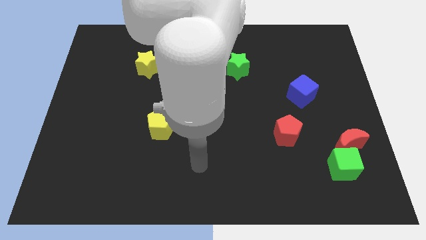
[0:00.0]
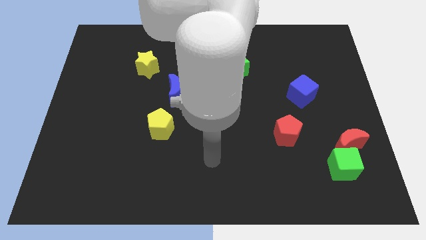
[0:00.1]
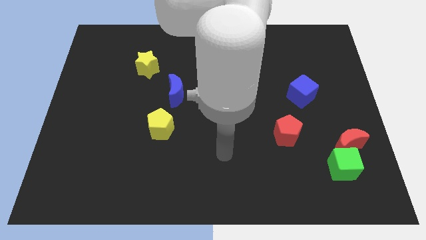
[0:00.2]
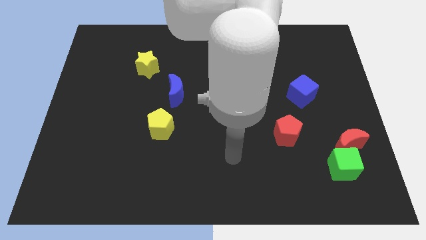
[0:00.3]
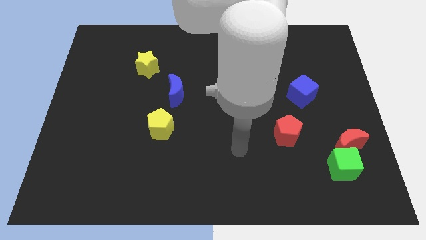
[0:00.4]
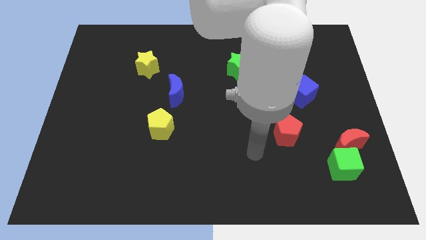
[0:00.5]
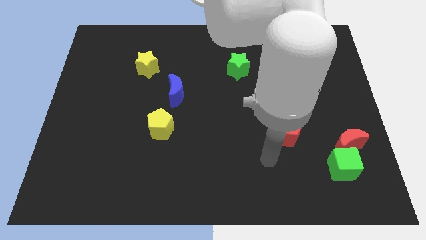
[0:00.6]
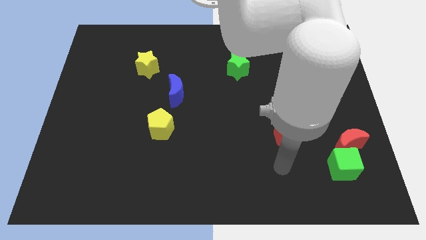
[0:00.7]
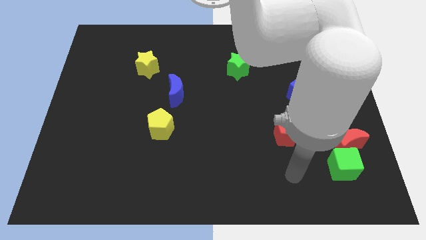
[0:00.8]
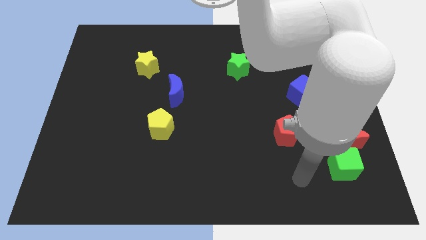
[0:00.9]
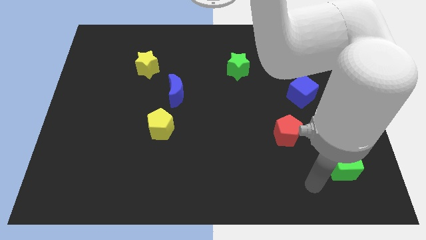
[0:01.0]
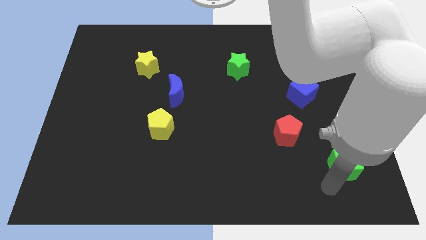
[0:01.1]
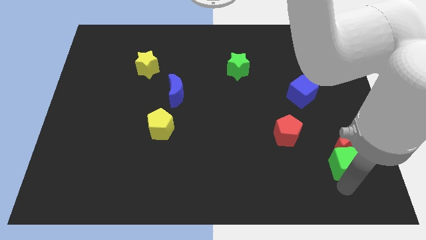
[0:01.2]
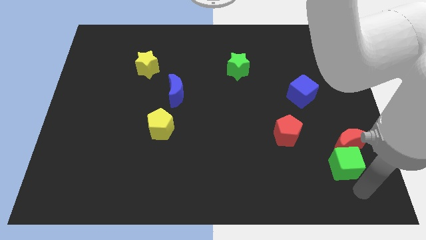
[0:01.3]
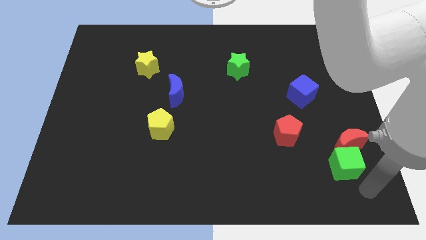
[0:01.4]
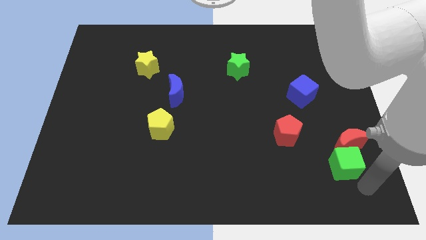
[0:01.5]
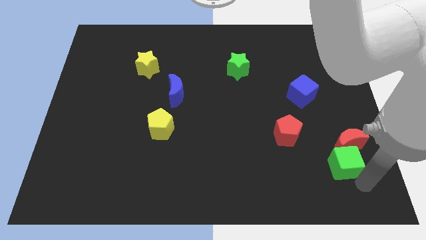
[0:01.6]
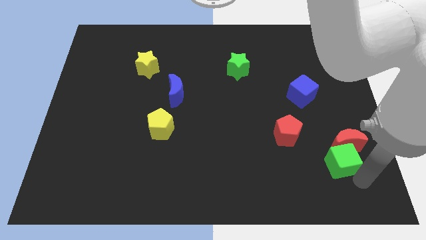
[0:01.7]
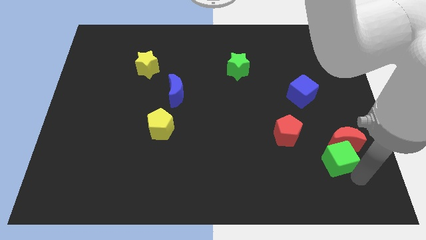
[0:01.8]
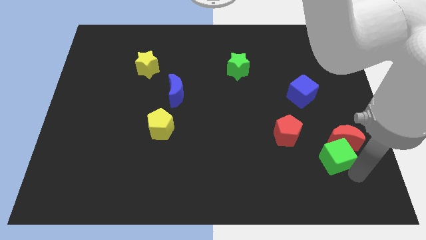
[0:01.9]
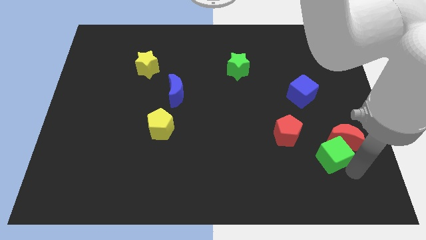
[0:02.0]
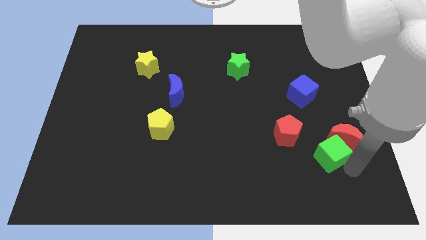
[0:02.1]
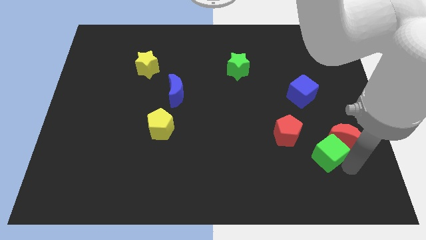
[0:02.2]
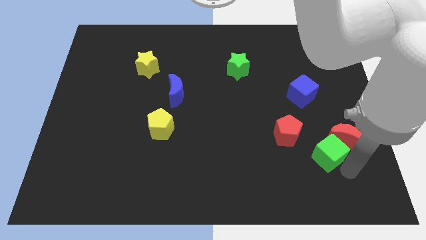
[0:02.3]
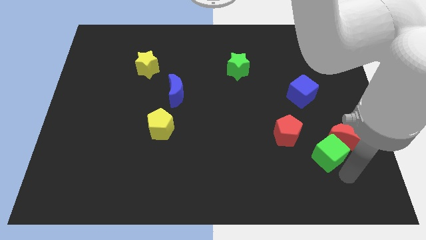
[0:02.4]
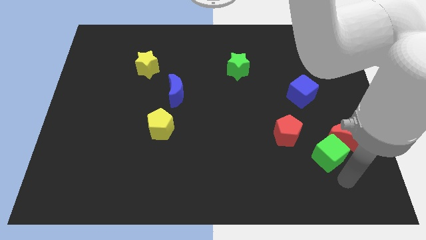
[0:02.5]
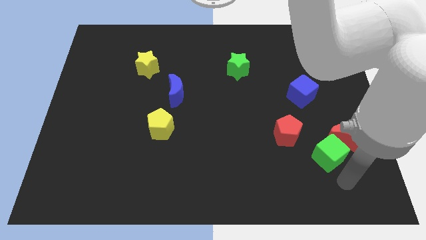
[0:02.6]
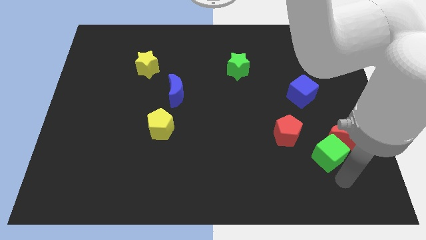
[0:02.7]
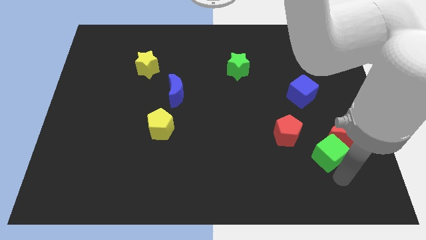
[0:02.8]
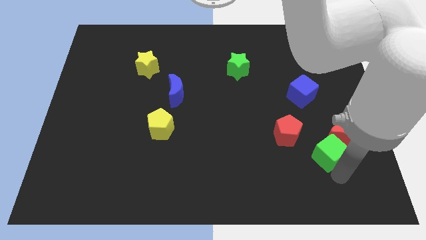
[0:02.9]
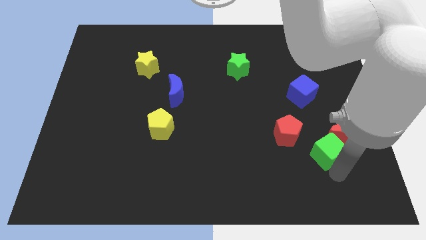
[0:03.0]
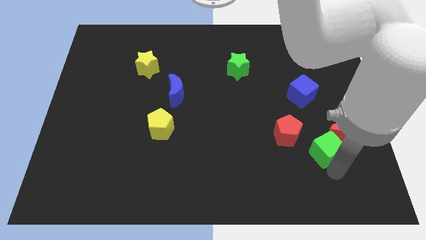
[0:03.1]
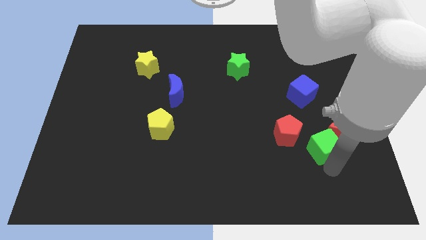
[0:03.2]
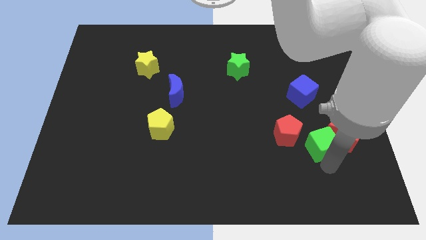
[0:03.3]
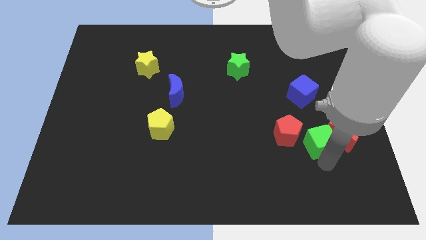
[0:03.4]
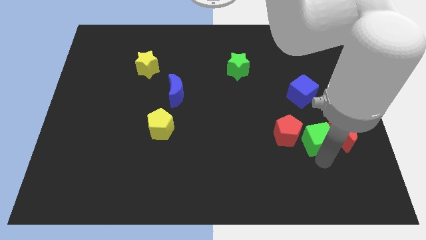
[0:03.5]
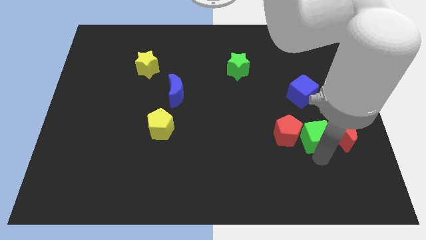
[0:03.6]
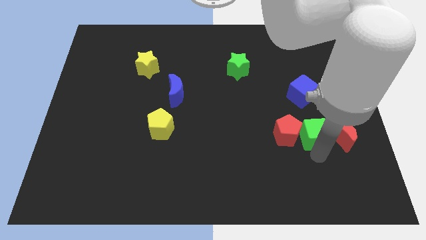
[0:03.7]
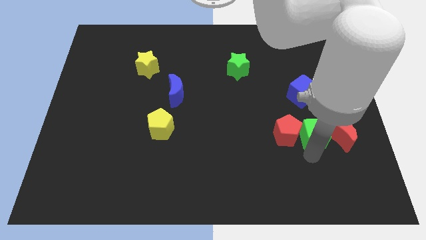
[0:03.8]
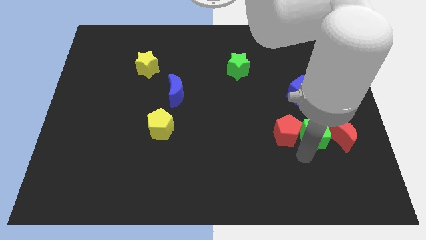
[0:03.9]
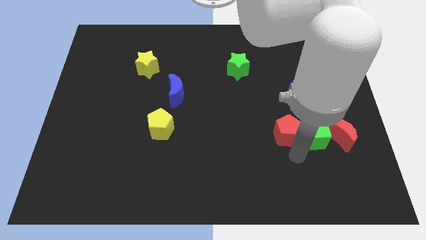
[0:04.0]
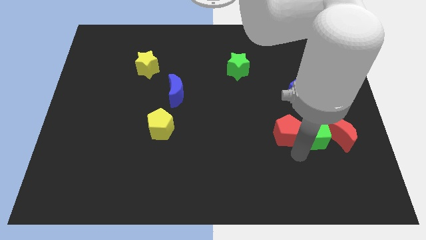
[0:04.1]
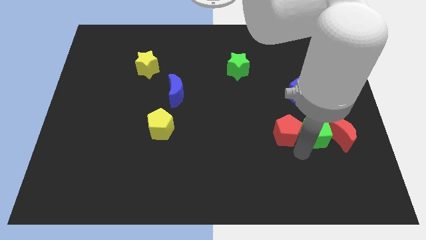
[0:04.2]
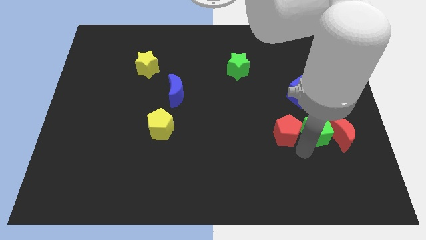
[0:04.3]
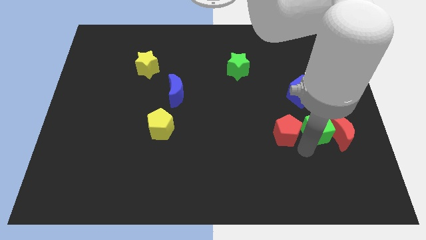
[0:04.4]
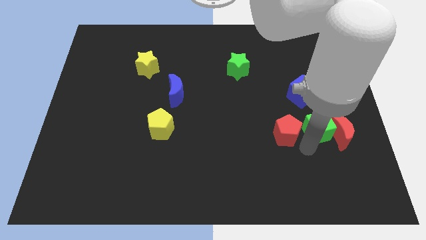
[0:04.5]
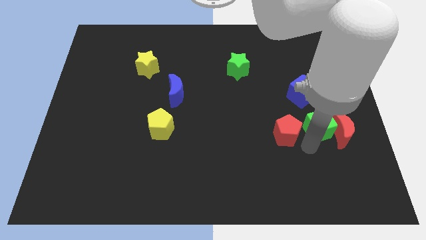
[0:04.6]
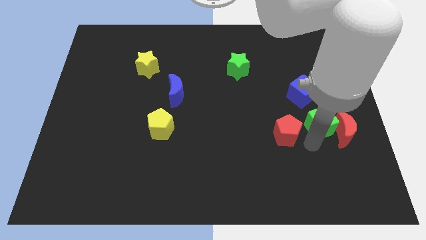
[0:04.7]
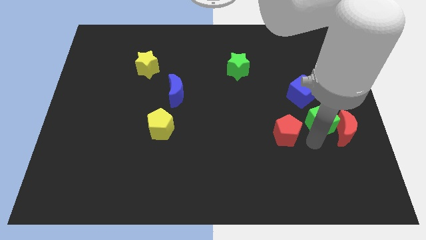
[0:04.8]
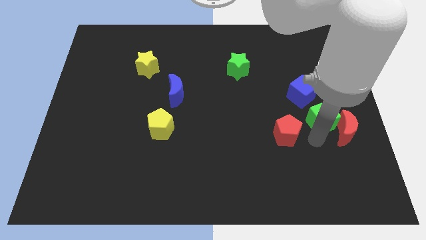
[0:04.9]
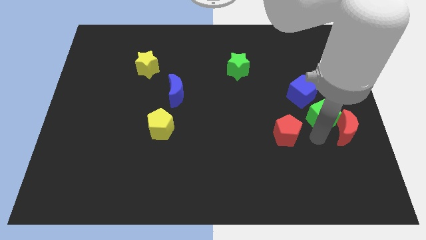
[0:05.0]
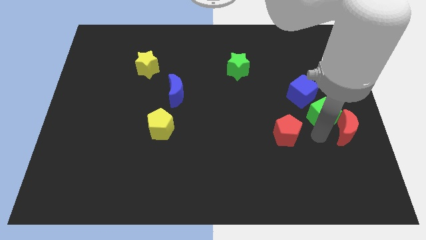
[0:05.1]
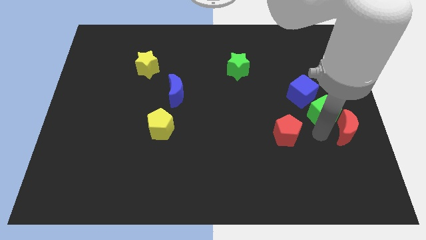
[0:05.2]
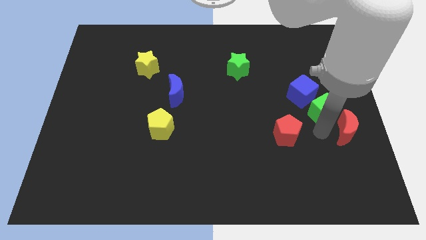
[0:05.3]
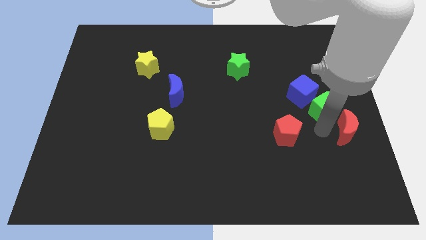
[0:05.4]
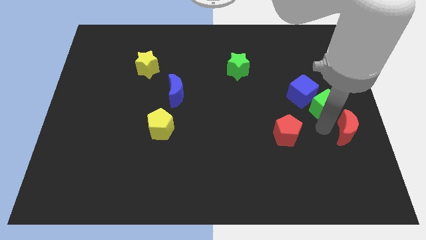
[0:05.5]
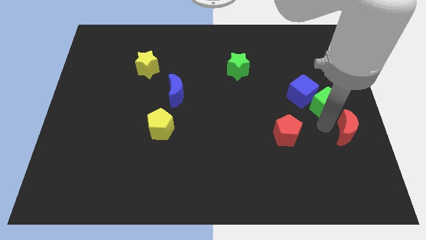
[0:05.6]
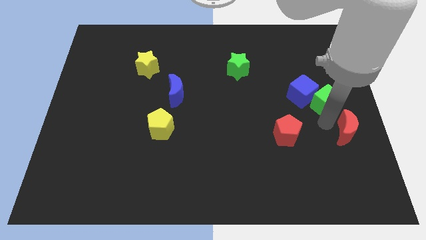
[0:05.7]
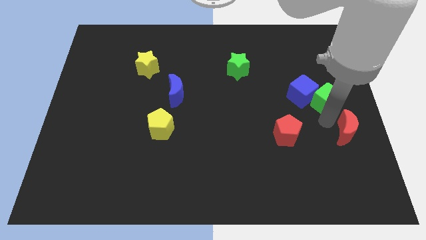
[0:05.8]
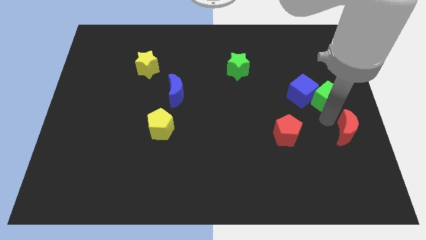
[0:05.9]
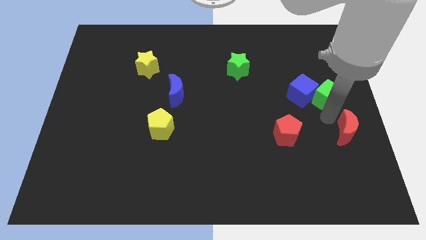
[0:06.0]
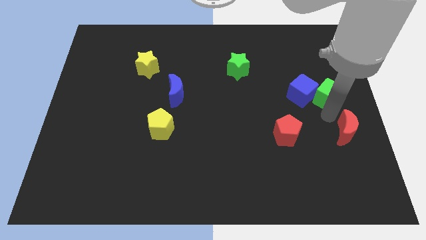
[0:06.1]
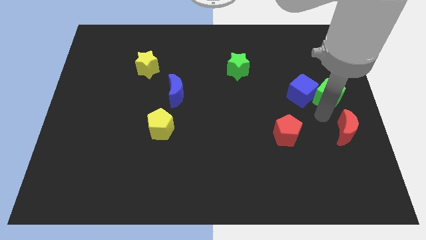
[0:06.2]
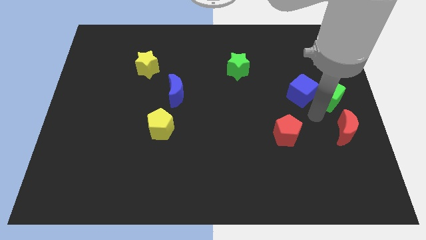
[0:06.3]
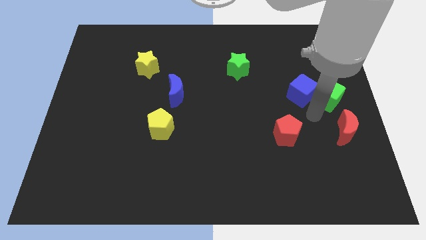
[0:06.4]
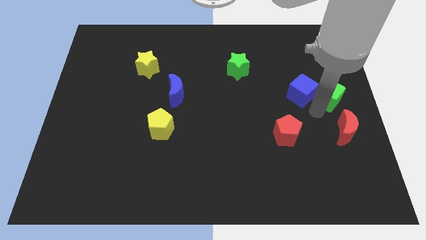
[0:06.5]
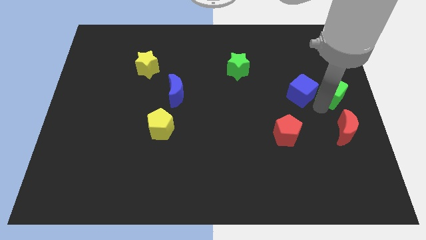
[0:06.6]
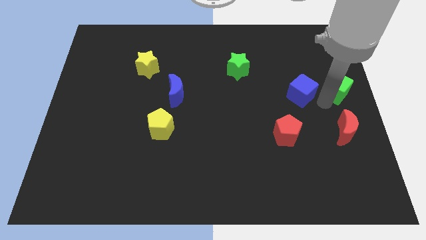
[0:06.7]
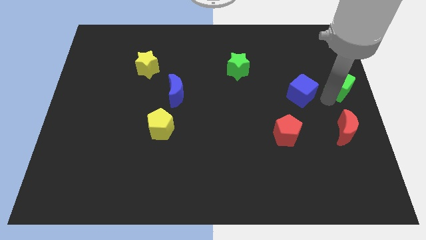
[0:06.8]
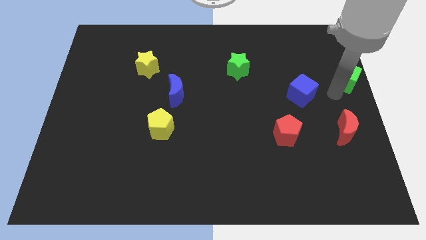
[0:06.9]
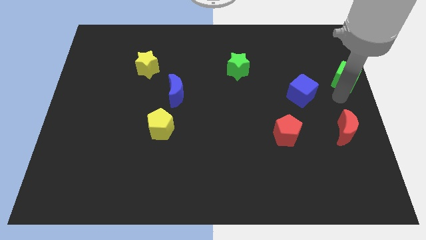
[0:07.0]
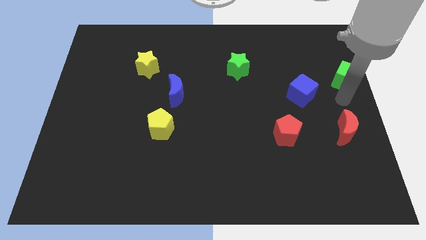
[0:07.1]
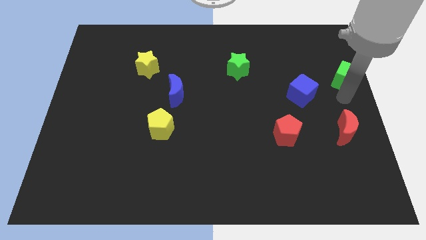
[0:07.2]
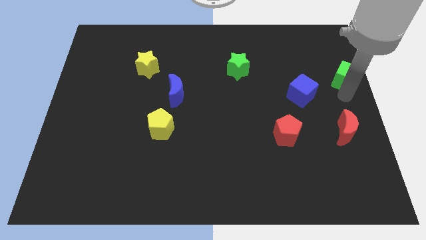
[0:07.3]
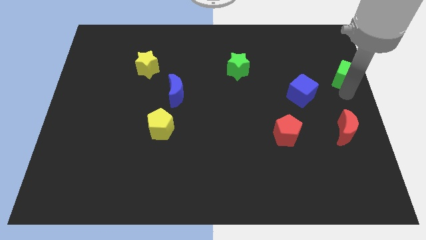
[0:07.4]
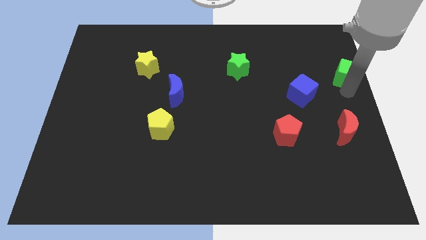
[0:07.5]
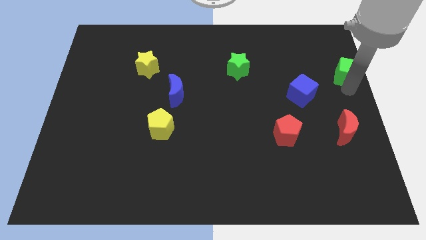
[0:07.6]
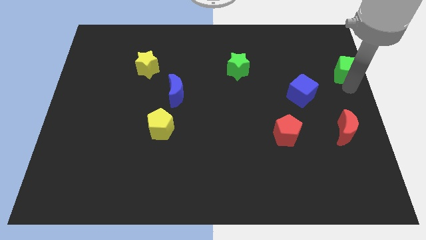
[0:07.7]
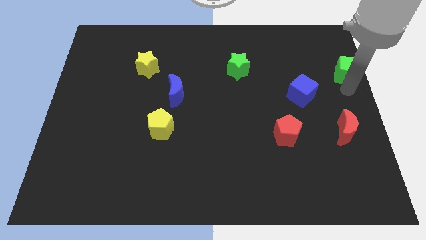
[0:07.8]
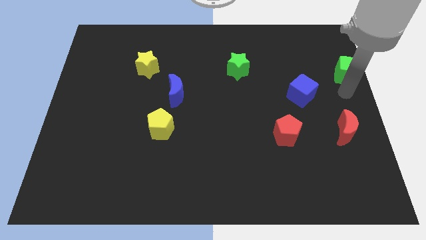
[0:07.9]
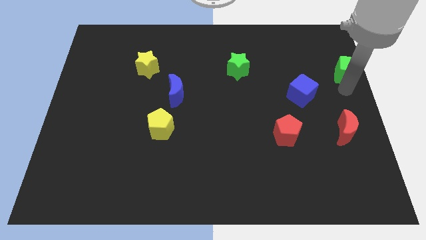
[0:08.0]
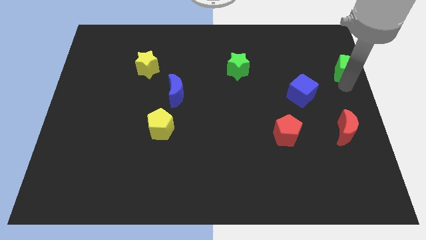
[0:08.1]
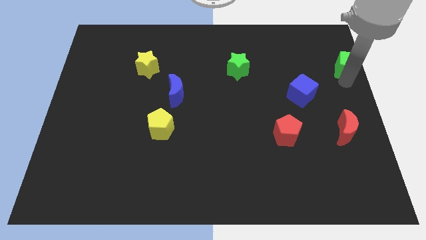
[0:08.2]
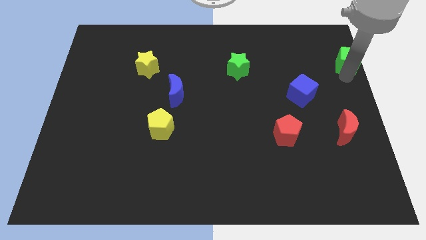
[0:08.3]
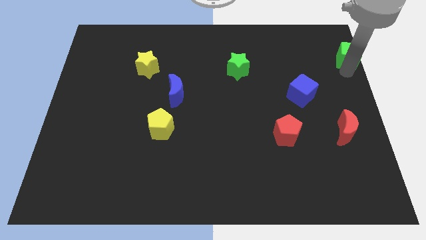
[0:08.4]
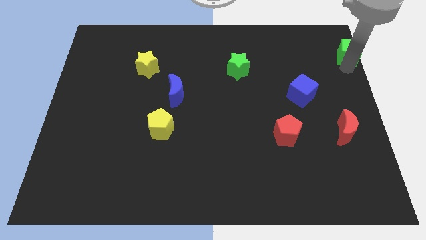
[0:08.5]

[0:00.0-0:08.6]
move the green cube to the upper right corner
